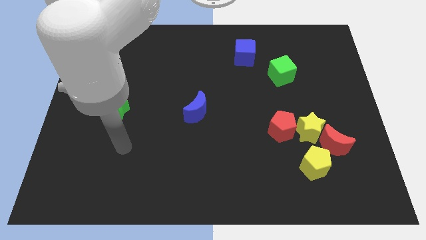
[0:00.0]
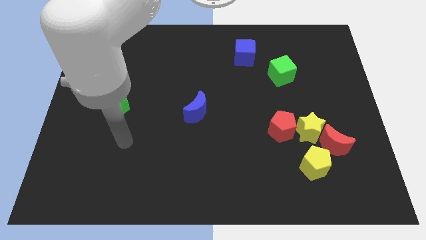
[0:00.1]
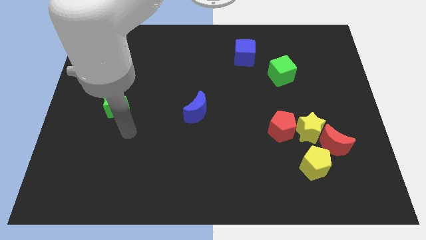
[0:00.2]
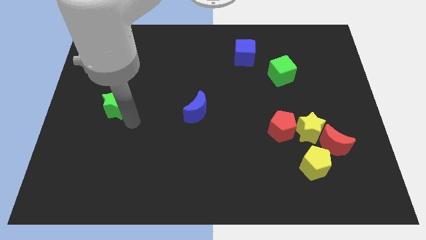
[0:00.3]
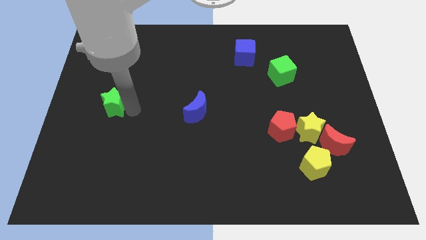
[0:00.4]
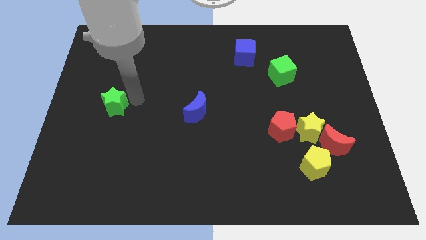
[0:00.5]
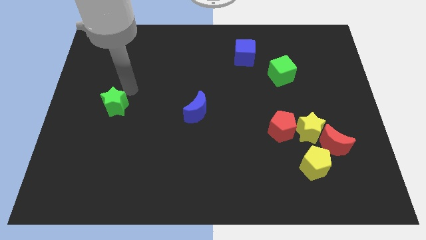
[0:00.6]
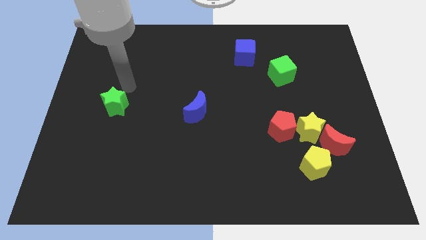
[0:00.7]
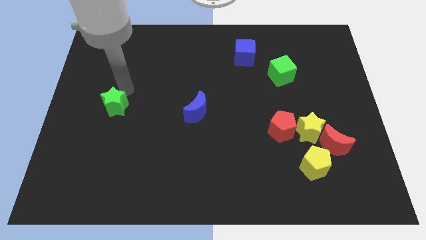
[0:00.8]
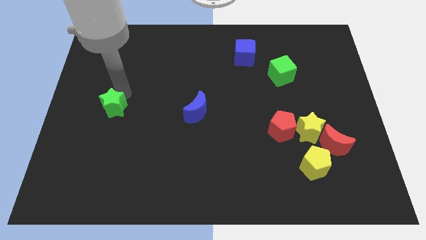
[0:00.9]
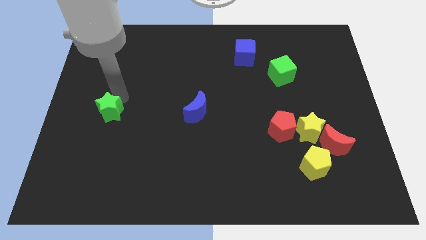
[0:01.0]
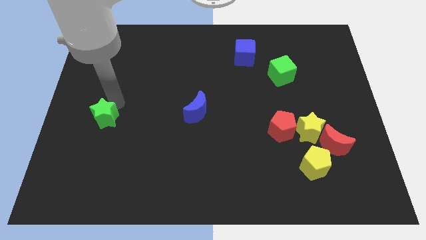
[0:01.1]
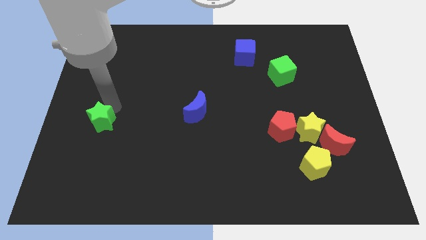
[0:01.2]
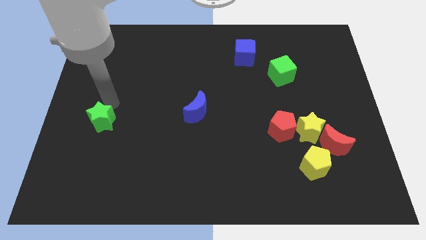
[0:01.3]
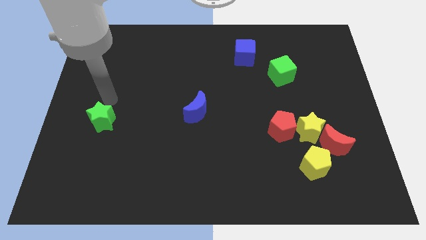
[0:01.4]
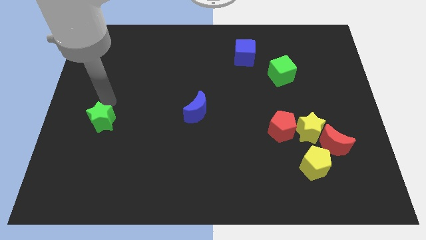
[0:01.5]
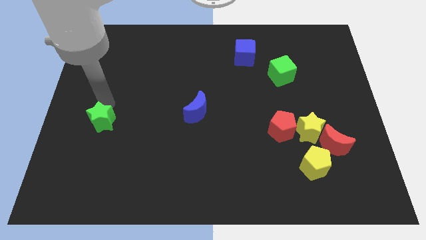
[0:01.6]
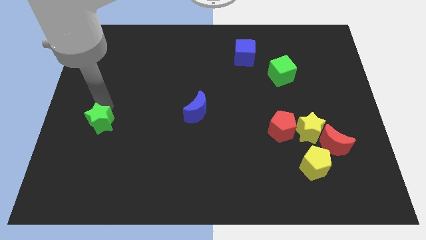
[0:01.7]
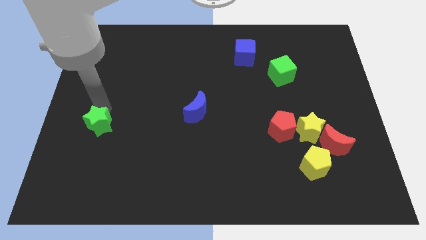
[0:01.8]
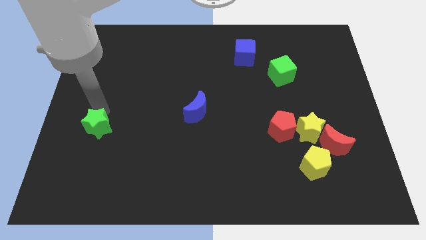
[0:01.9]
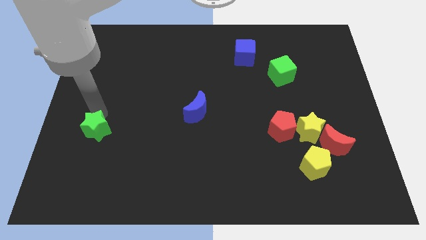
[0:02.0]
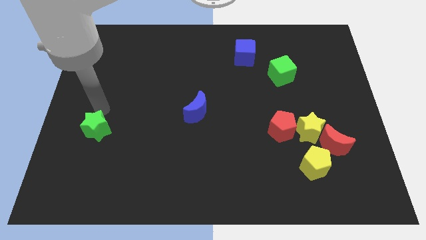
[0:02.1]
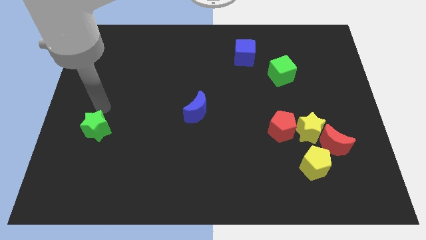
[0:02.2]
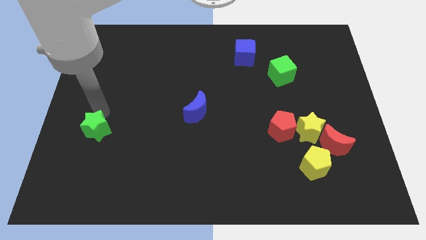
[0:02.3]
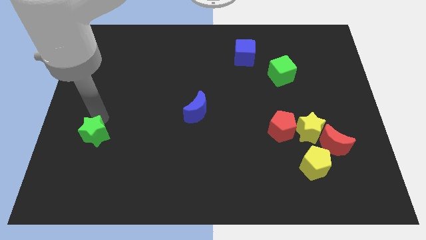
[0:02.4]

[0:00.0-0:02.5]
move the green star downwards slightly

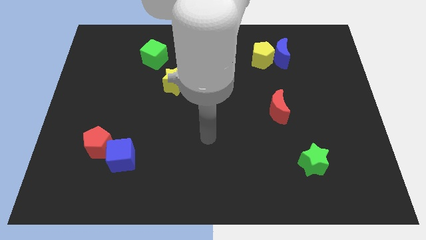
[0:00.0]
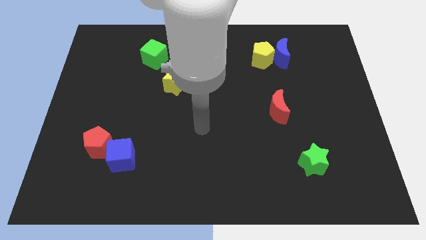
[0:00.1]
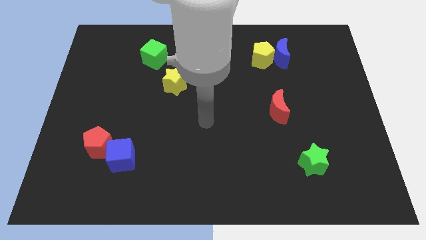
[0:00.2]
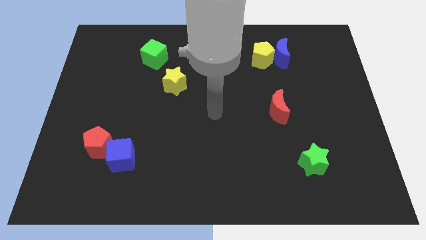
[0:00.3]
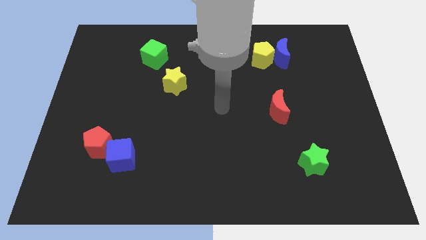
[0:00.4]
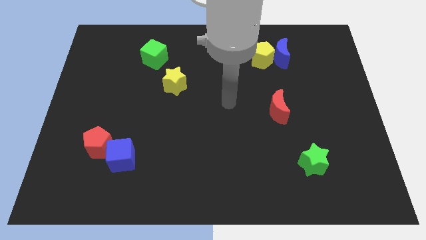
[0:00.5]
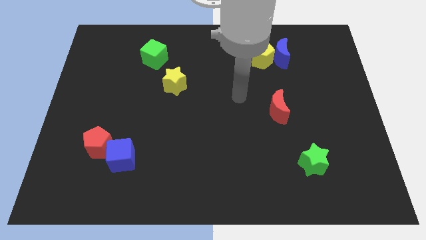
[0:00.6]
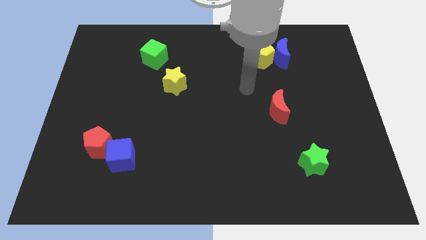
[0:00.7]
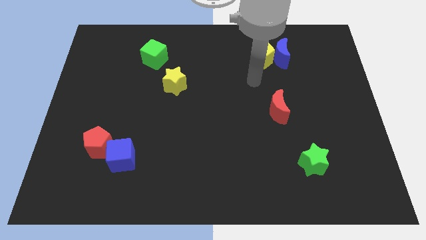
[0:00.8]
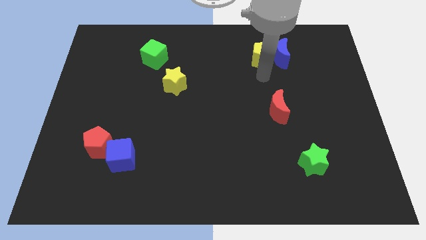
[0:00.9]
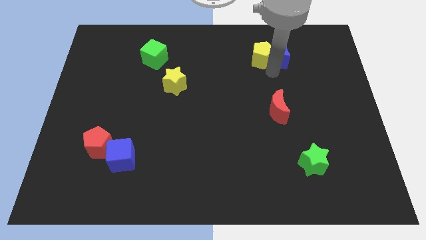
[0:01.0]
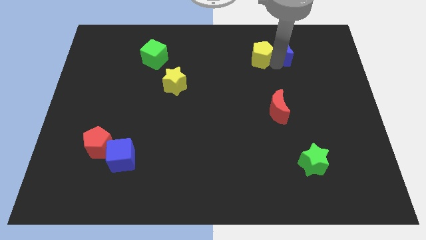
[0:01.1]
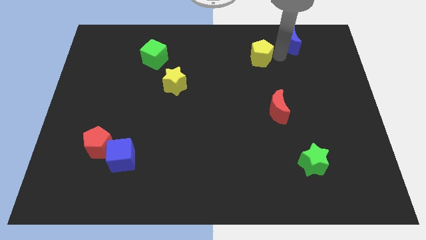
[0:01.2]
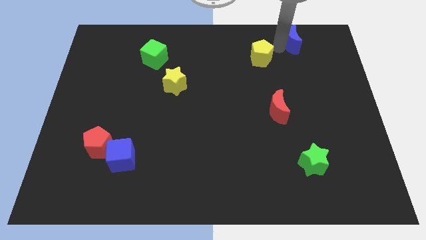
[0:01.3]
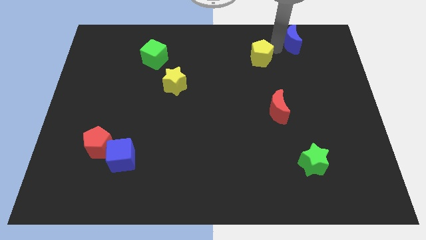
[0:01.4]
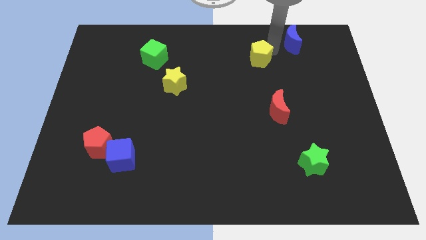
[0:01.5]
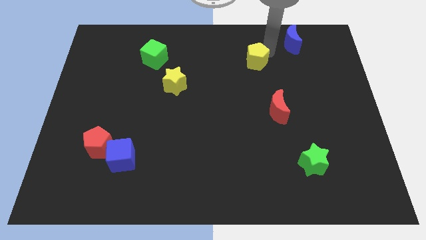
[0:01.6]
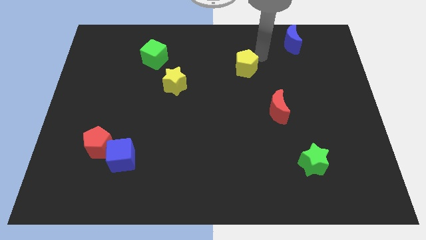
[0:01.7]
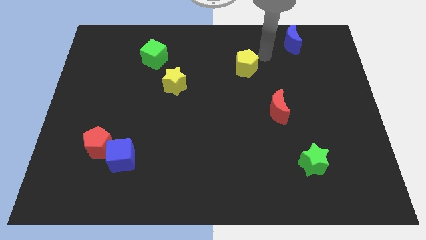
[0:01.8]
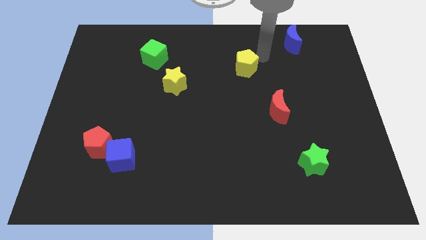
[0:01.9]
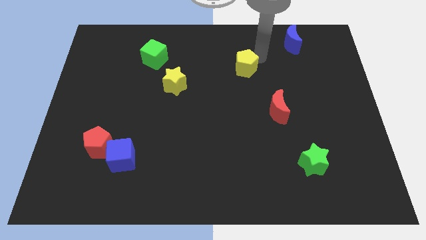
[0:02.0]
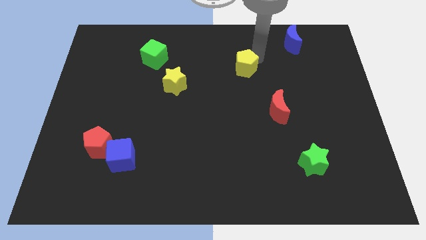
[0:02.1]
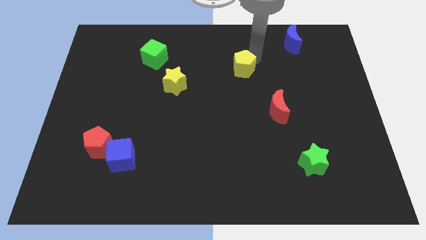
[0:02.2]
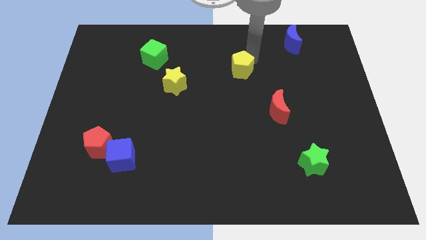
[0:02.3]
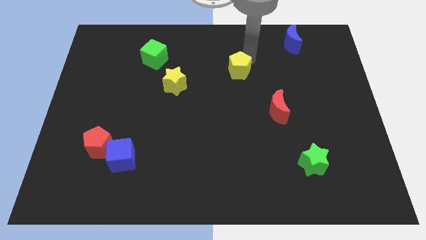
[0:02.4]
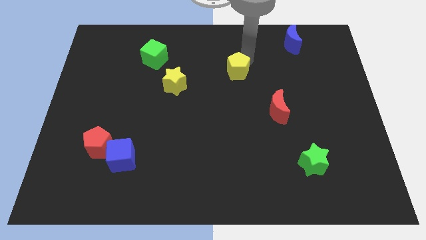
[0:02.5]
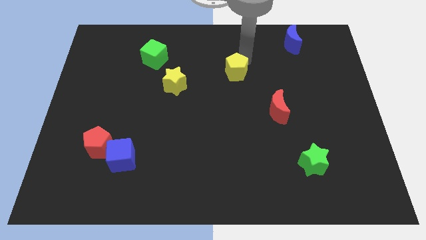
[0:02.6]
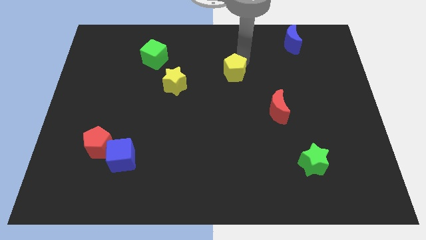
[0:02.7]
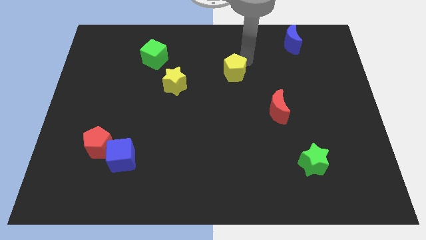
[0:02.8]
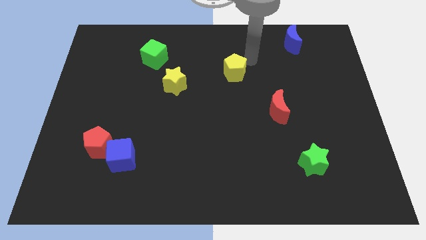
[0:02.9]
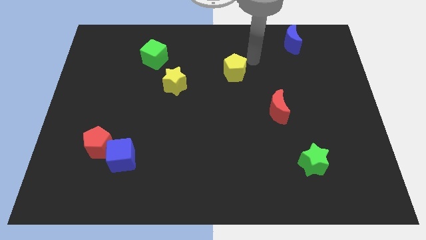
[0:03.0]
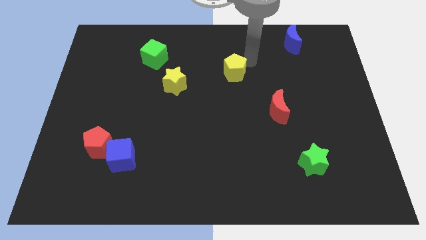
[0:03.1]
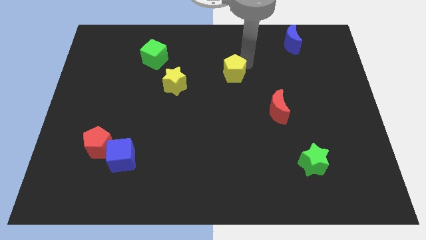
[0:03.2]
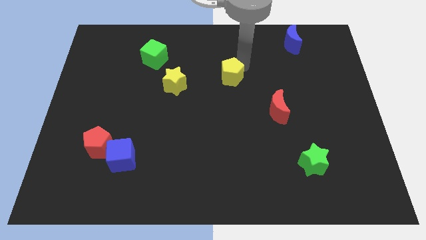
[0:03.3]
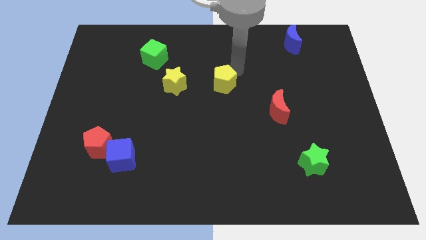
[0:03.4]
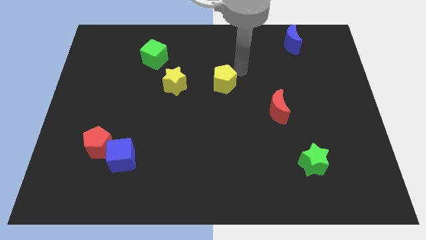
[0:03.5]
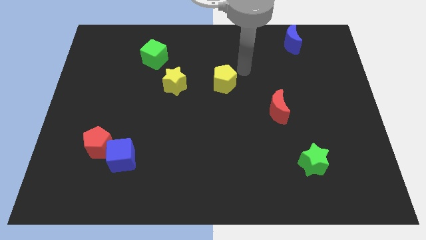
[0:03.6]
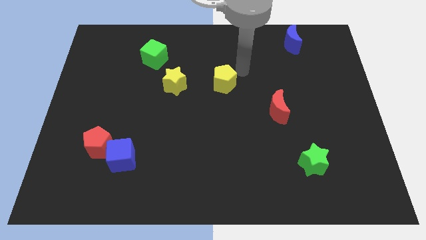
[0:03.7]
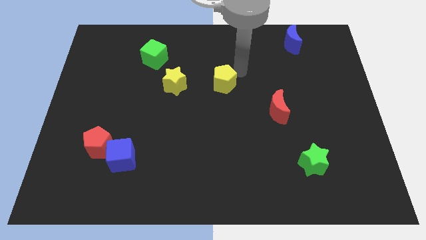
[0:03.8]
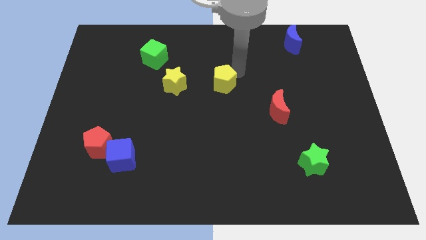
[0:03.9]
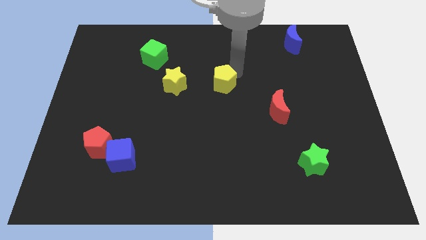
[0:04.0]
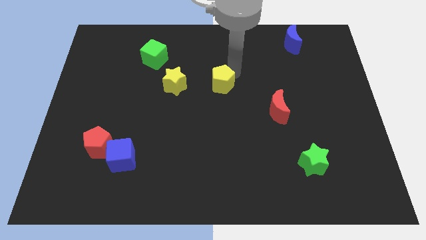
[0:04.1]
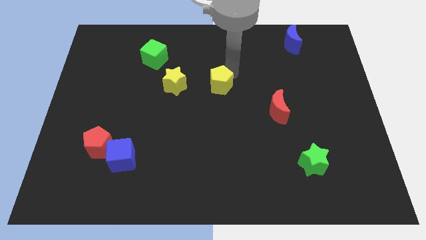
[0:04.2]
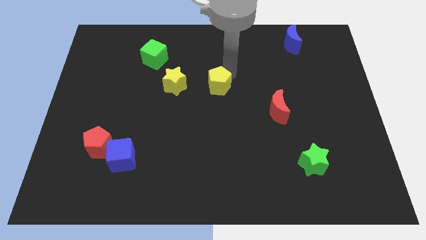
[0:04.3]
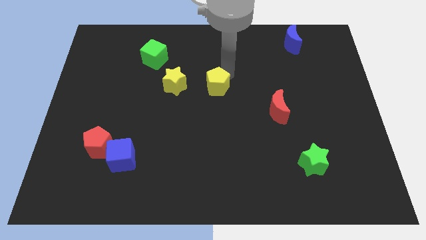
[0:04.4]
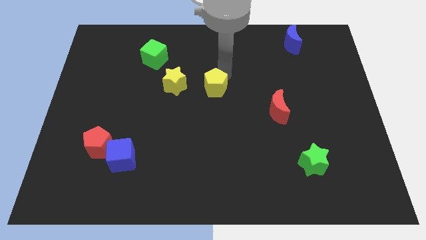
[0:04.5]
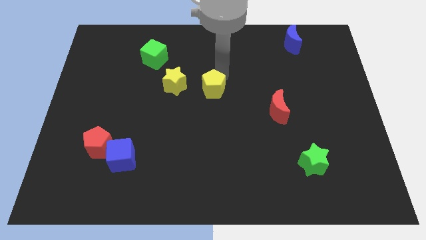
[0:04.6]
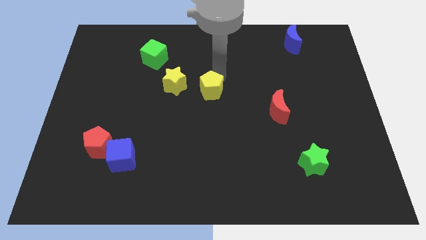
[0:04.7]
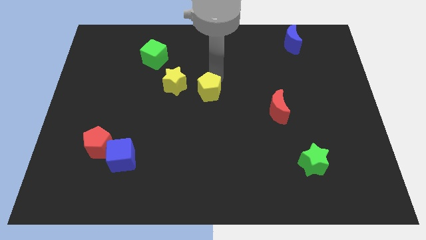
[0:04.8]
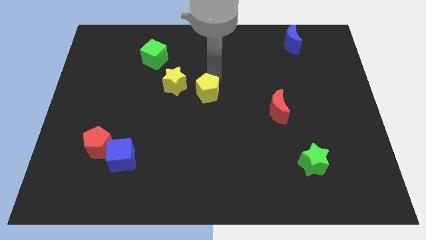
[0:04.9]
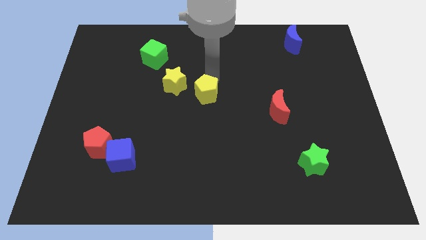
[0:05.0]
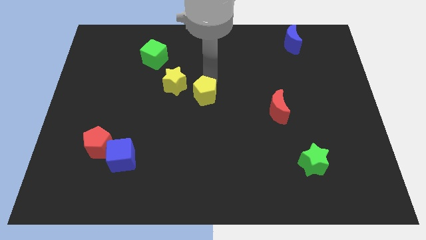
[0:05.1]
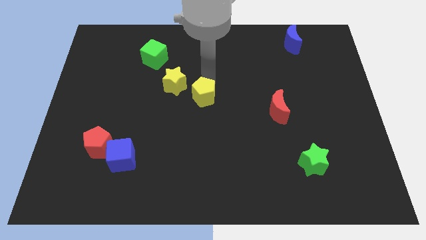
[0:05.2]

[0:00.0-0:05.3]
slide the yellow pentagon diagonally downwards and left

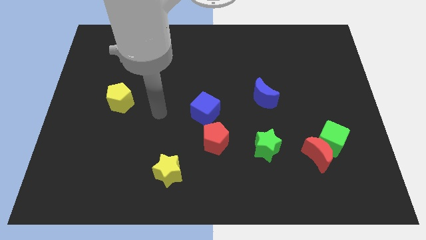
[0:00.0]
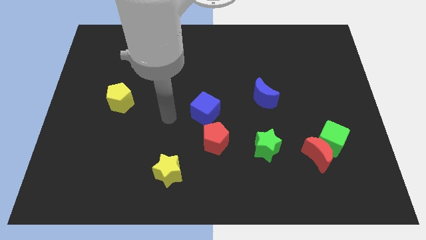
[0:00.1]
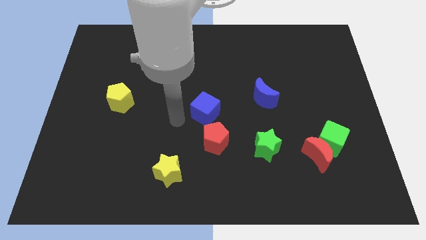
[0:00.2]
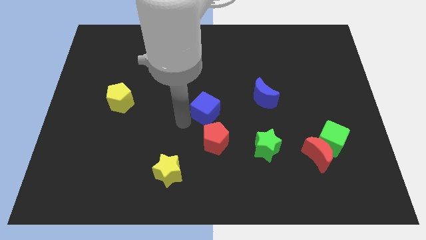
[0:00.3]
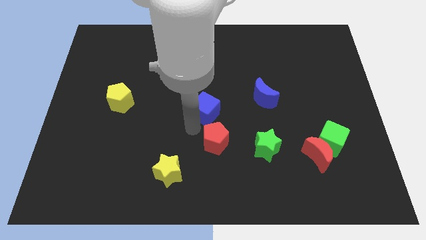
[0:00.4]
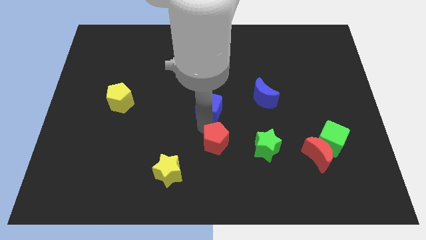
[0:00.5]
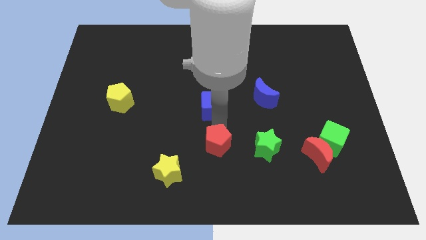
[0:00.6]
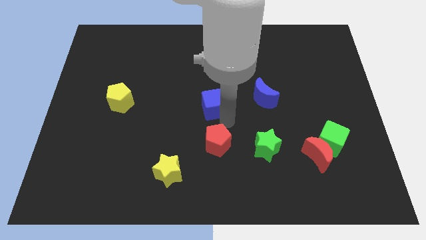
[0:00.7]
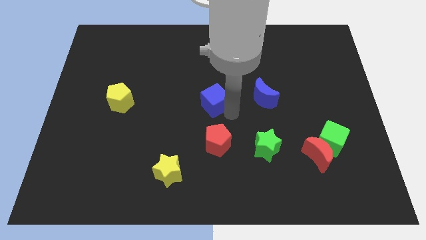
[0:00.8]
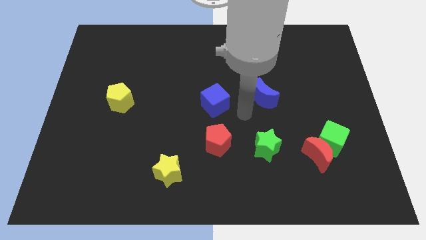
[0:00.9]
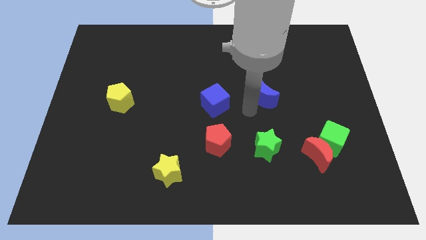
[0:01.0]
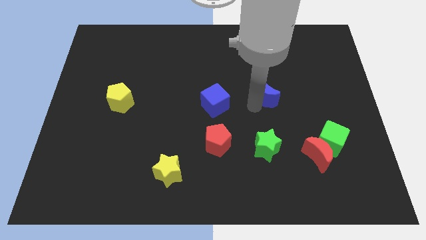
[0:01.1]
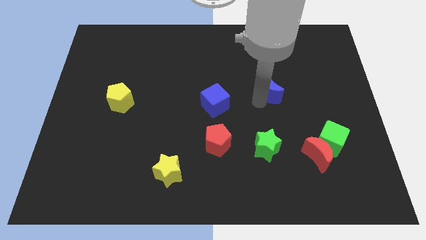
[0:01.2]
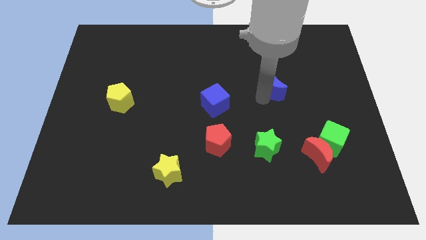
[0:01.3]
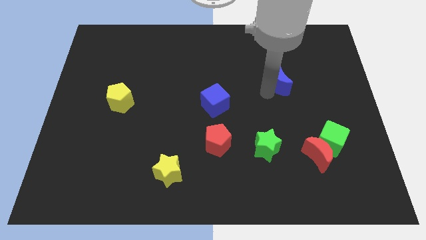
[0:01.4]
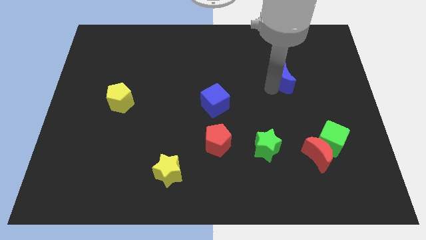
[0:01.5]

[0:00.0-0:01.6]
slightly slide the blue moon up and right
